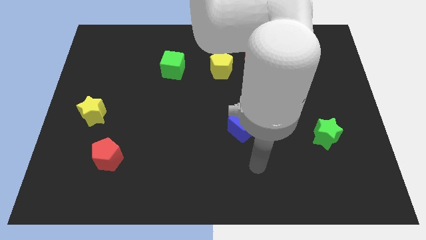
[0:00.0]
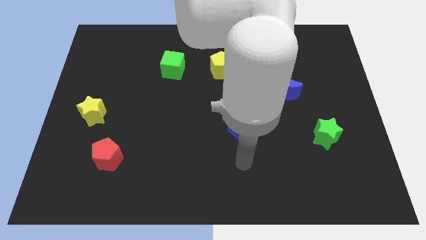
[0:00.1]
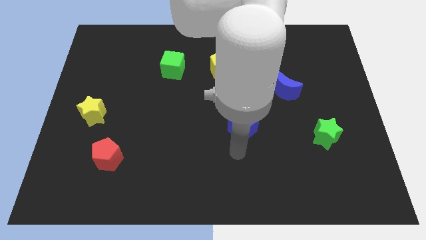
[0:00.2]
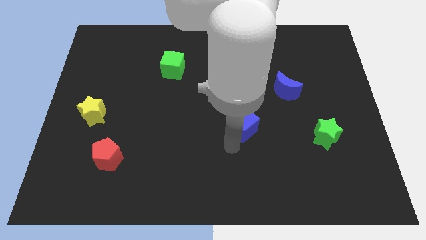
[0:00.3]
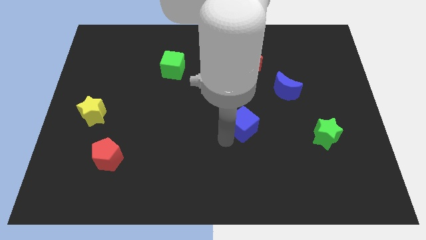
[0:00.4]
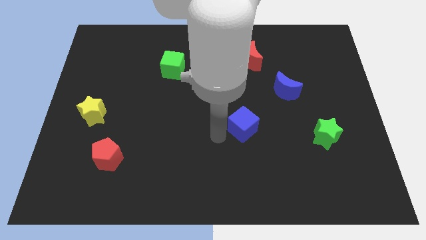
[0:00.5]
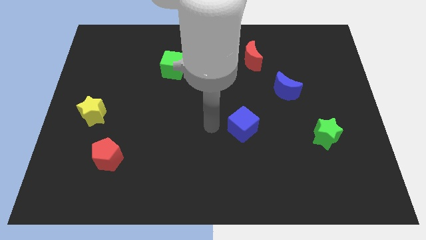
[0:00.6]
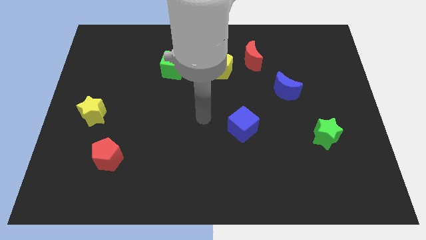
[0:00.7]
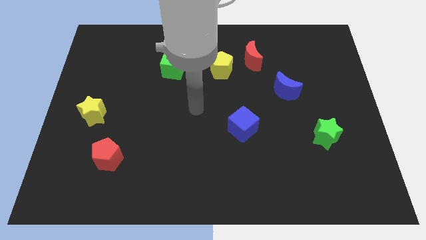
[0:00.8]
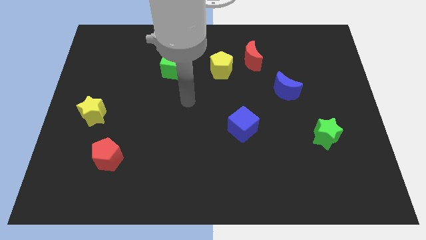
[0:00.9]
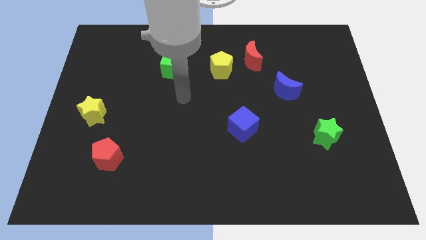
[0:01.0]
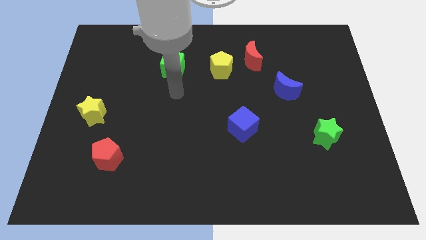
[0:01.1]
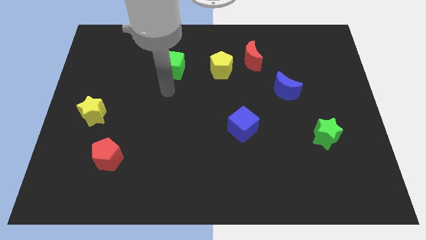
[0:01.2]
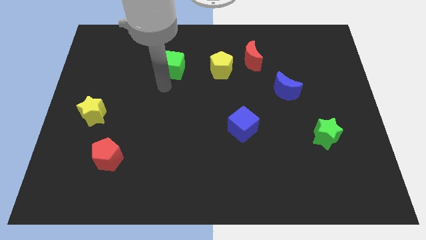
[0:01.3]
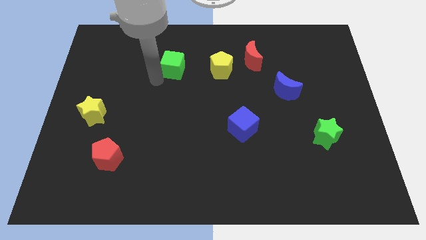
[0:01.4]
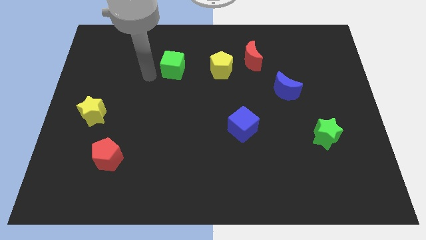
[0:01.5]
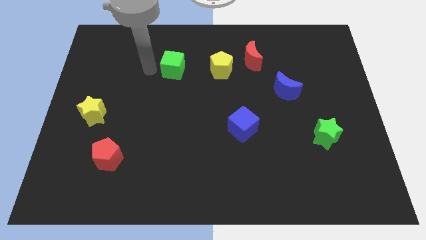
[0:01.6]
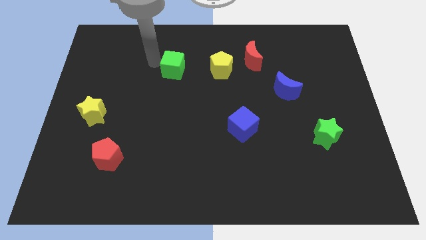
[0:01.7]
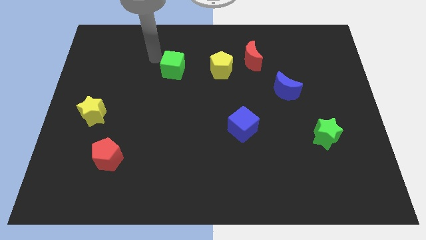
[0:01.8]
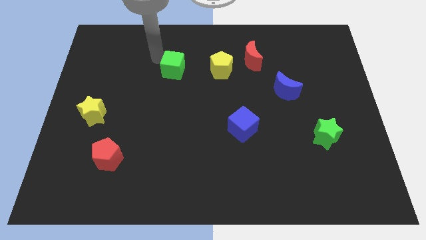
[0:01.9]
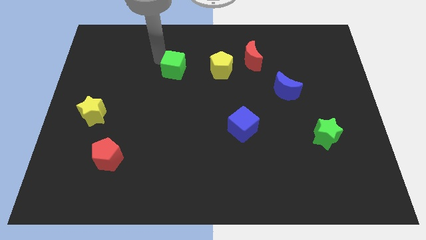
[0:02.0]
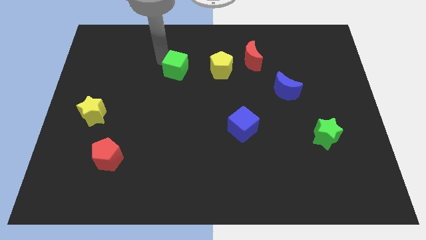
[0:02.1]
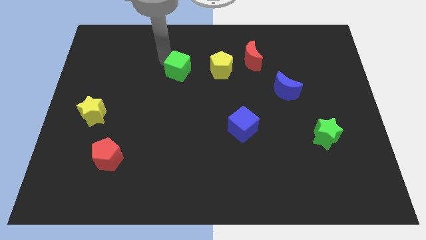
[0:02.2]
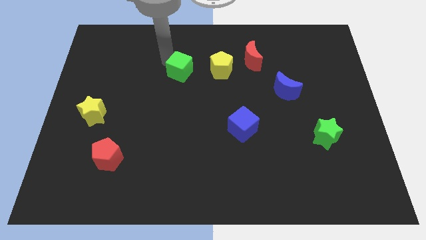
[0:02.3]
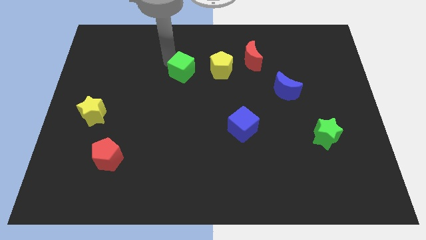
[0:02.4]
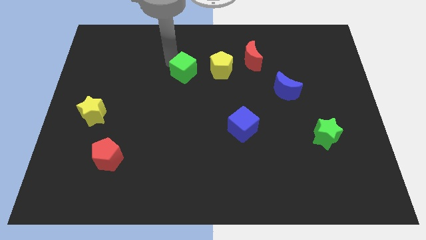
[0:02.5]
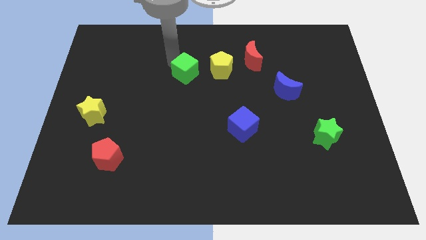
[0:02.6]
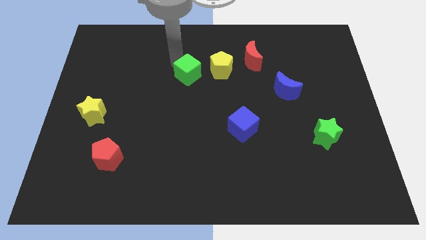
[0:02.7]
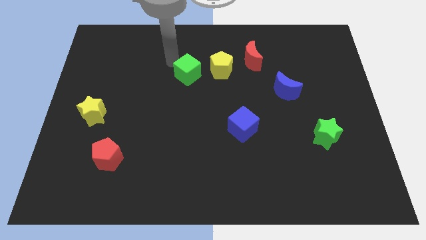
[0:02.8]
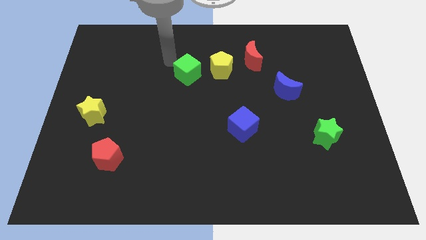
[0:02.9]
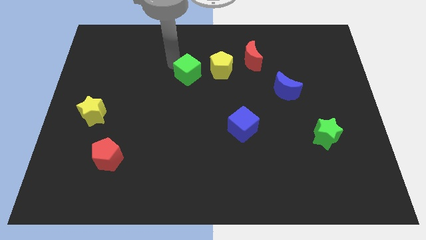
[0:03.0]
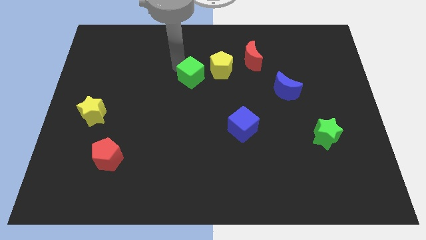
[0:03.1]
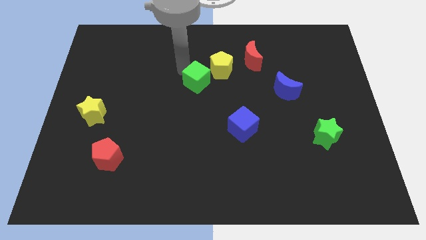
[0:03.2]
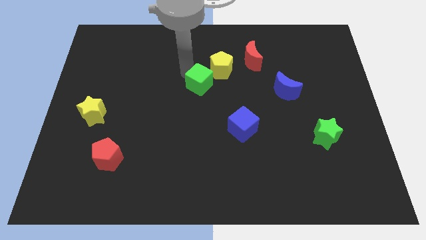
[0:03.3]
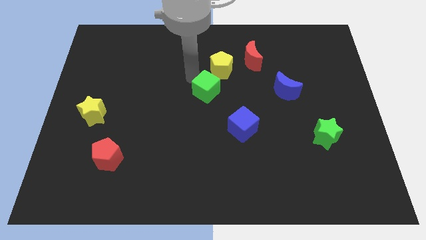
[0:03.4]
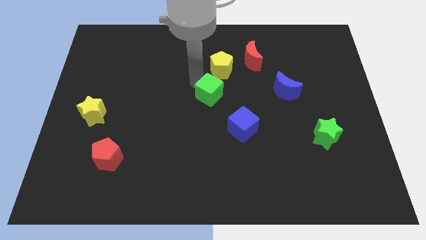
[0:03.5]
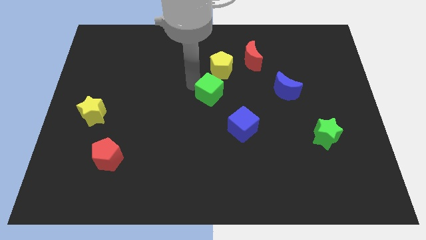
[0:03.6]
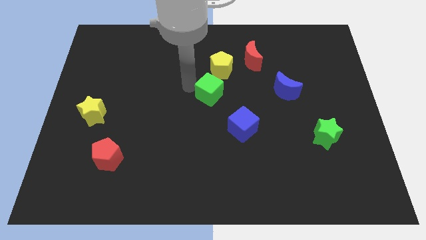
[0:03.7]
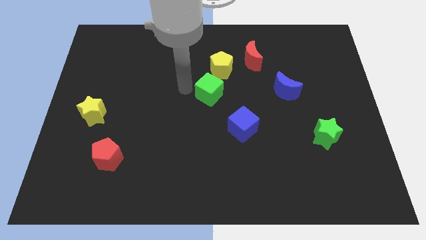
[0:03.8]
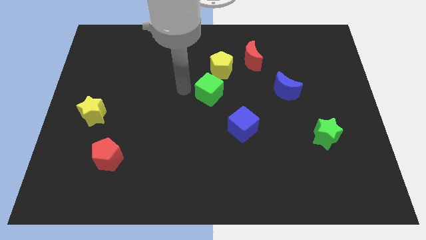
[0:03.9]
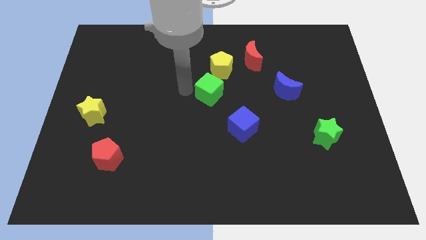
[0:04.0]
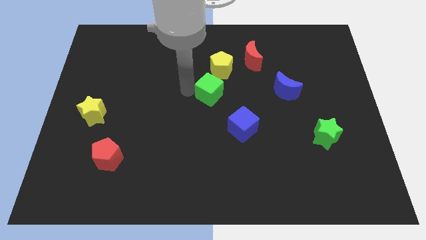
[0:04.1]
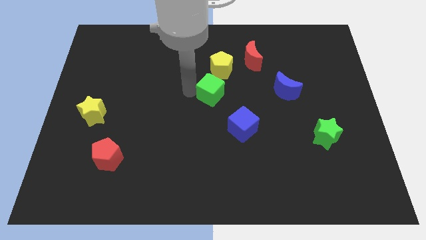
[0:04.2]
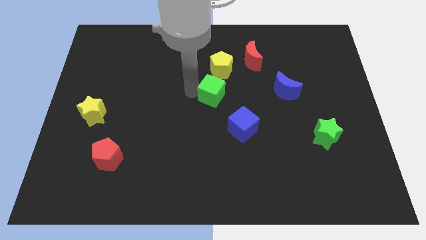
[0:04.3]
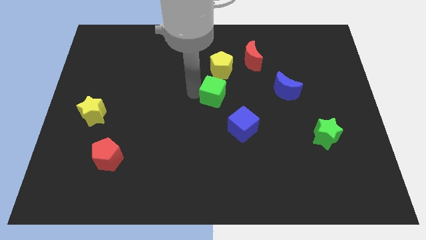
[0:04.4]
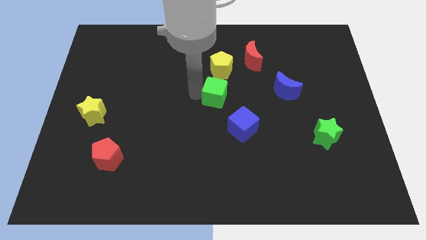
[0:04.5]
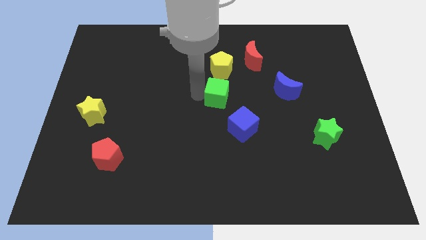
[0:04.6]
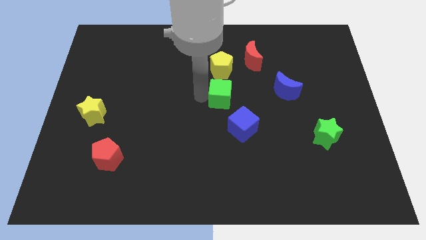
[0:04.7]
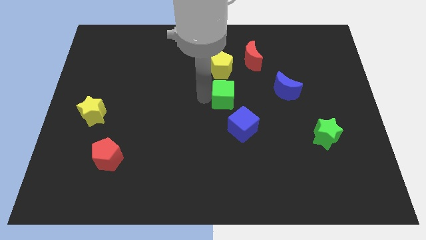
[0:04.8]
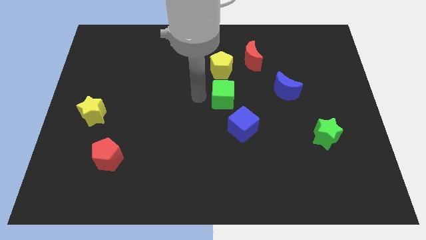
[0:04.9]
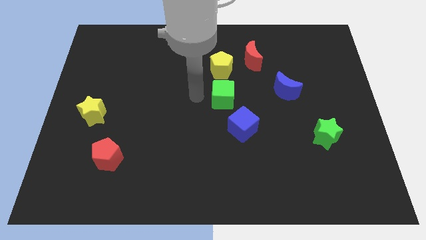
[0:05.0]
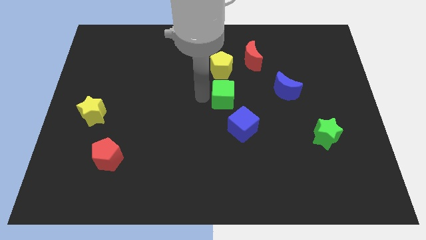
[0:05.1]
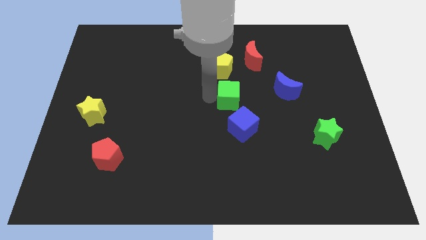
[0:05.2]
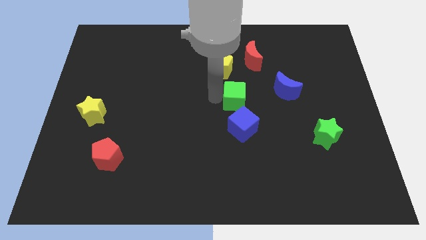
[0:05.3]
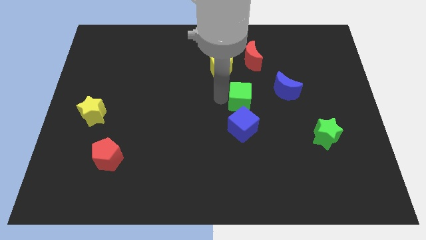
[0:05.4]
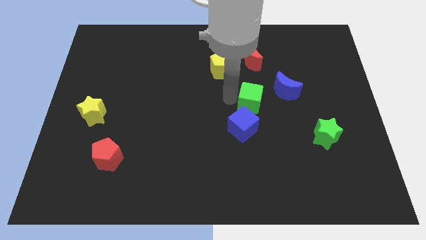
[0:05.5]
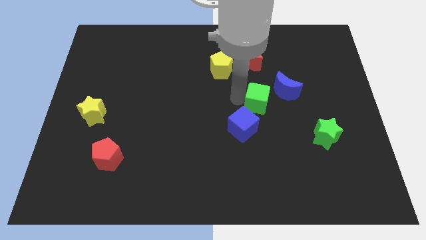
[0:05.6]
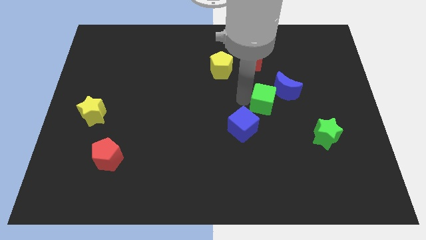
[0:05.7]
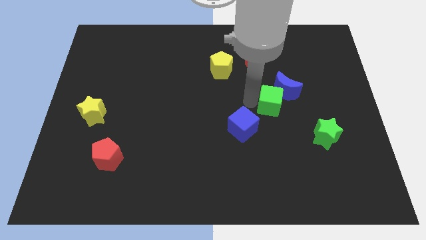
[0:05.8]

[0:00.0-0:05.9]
move the green cube to the blue moon
